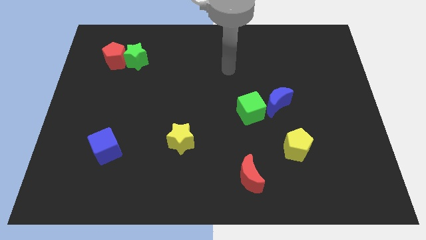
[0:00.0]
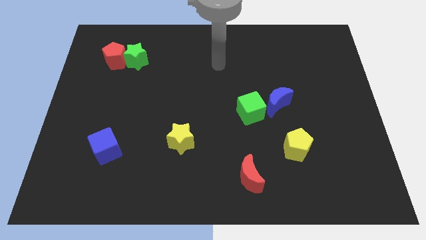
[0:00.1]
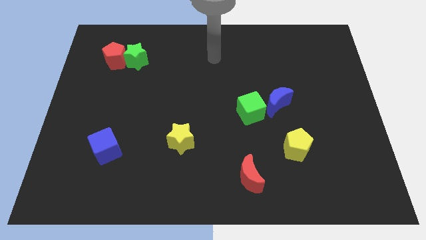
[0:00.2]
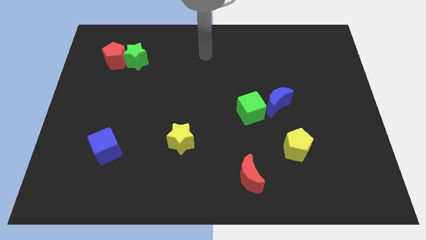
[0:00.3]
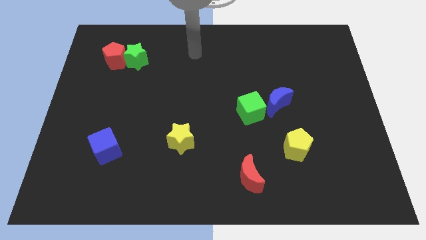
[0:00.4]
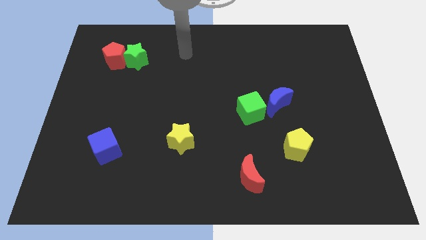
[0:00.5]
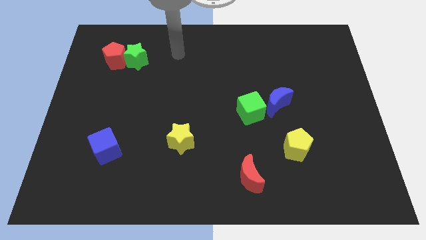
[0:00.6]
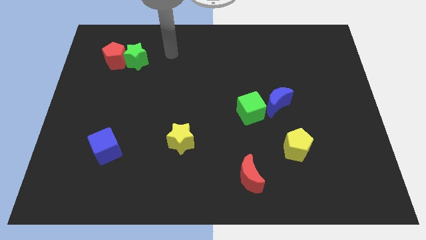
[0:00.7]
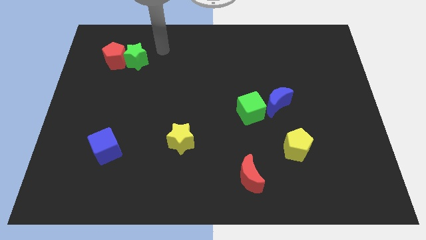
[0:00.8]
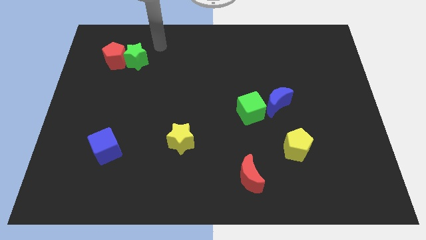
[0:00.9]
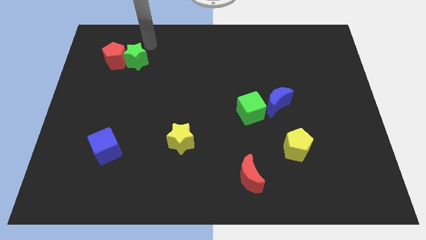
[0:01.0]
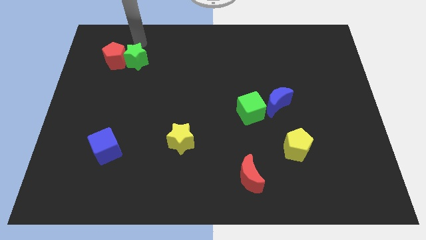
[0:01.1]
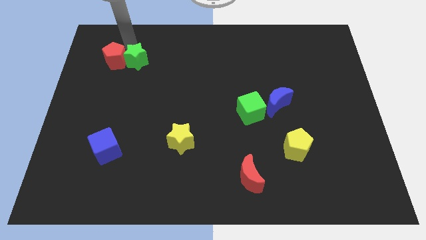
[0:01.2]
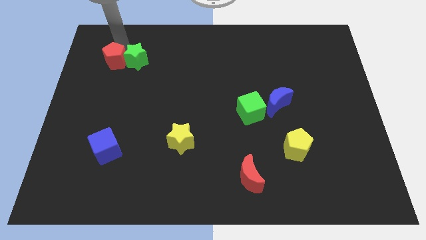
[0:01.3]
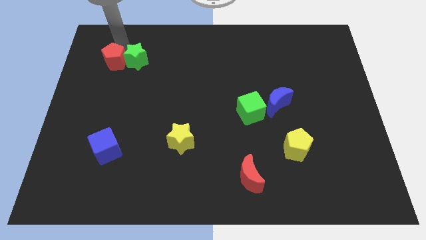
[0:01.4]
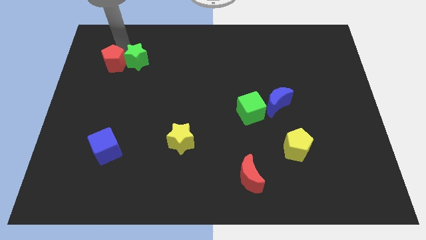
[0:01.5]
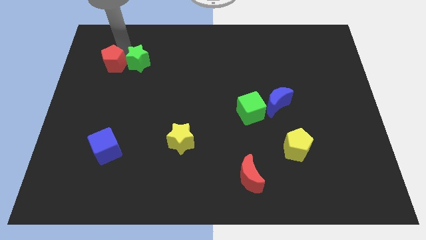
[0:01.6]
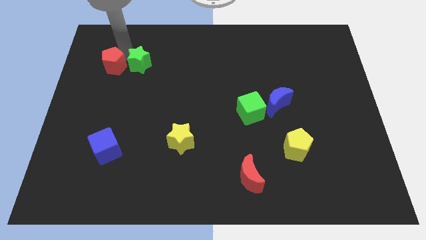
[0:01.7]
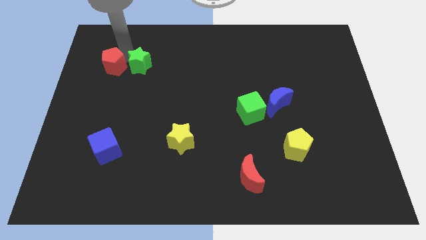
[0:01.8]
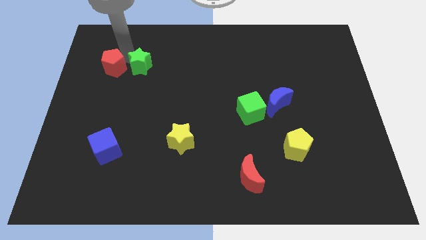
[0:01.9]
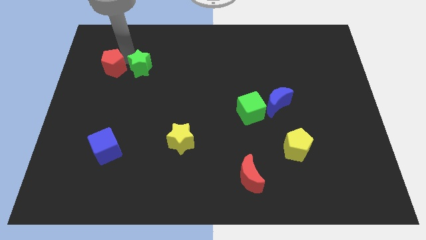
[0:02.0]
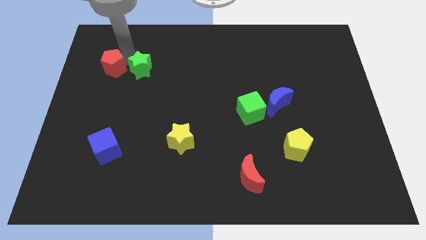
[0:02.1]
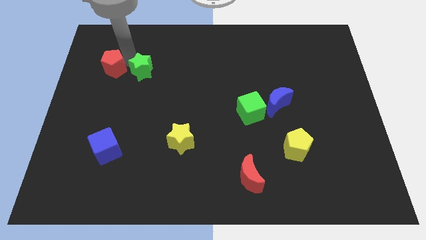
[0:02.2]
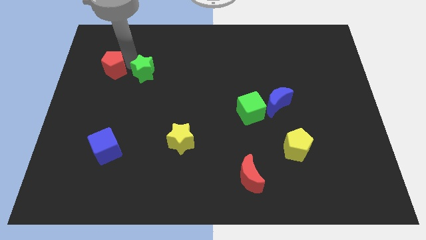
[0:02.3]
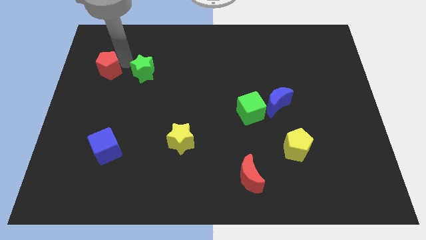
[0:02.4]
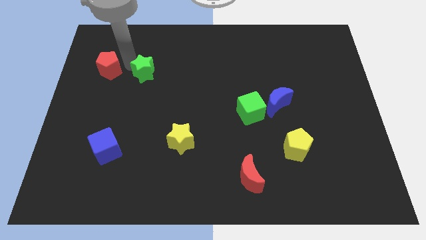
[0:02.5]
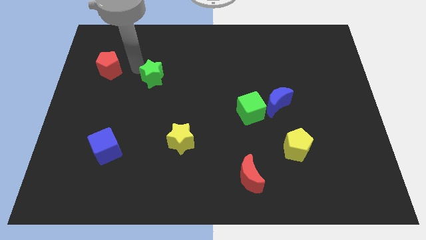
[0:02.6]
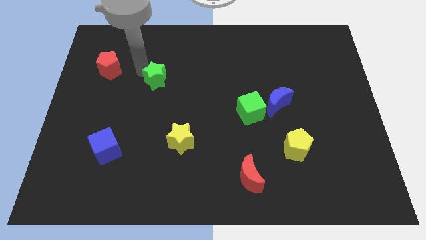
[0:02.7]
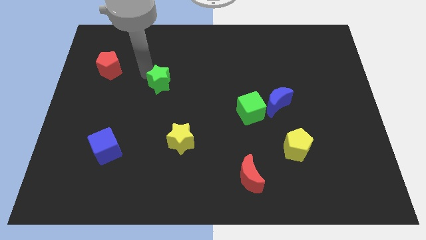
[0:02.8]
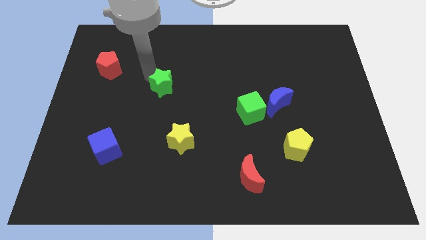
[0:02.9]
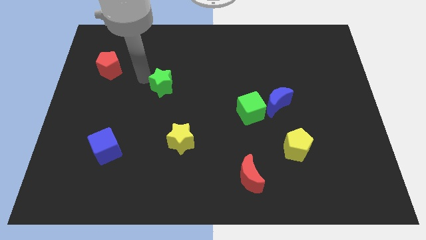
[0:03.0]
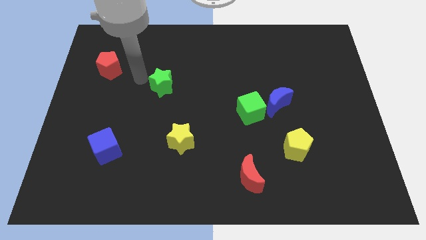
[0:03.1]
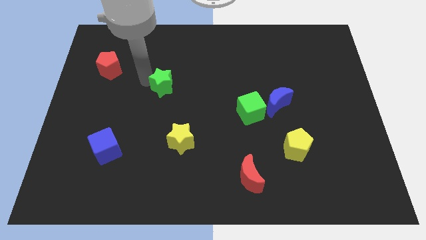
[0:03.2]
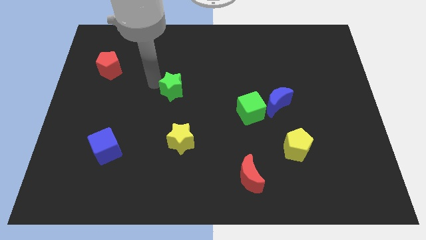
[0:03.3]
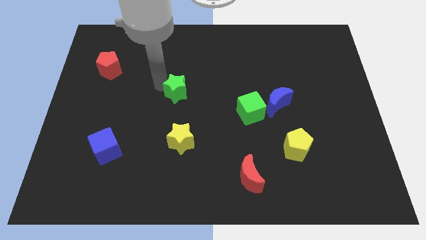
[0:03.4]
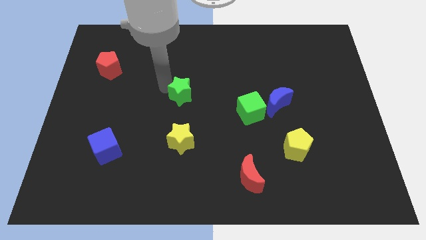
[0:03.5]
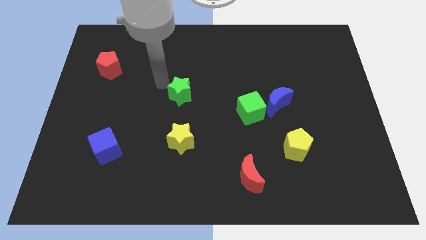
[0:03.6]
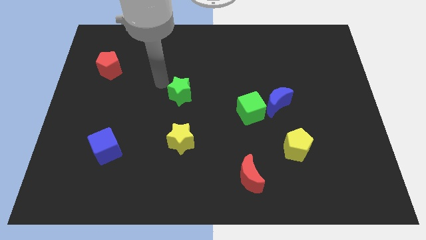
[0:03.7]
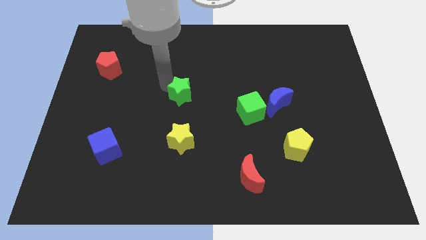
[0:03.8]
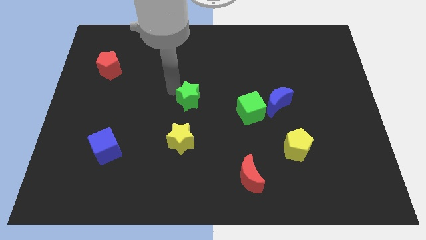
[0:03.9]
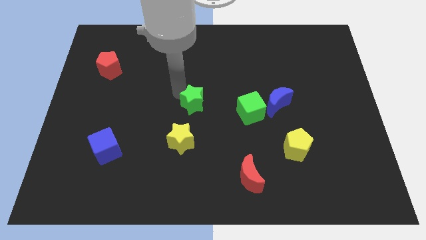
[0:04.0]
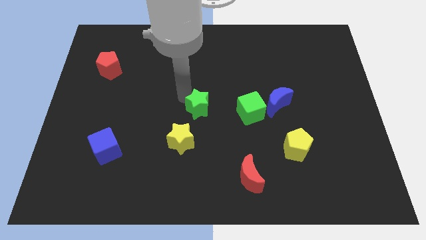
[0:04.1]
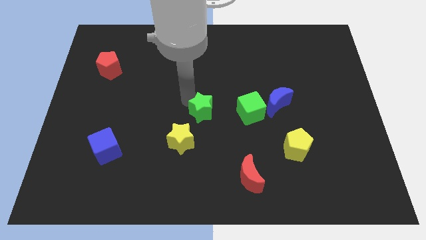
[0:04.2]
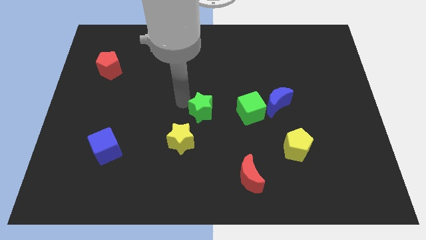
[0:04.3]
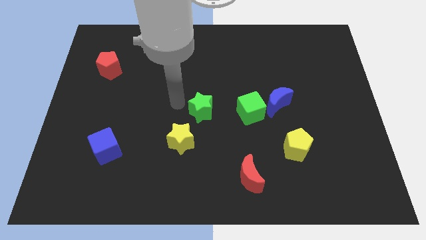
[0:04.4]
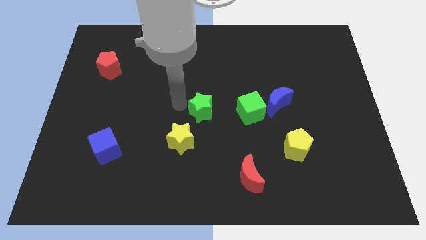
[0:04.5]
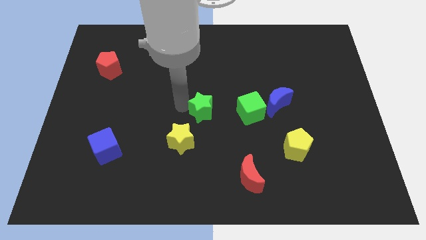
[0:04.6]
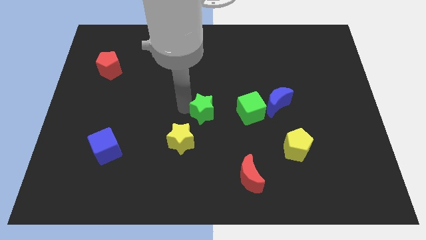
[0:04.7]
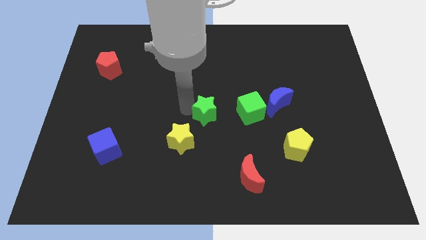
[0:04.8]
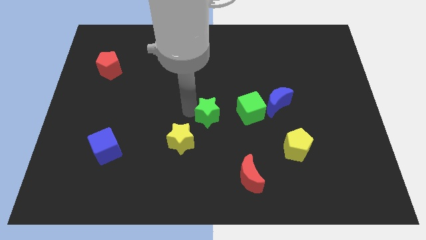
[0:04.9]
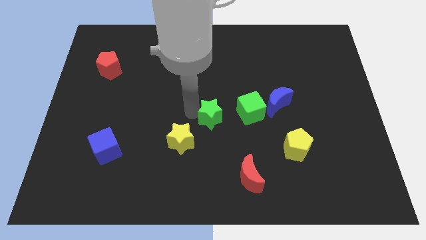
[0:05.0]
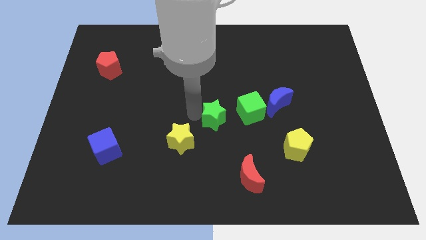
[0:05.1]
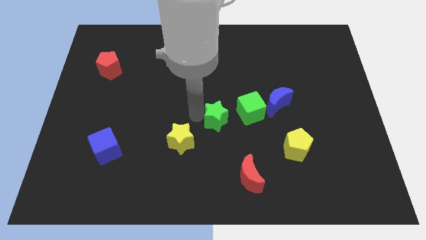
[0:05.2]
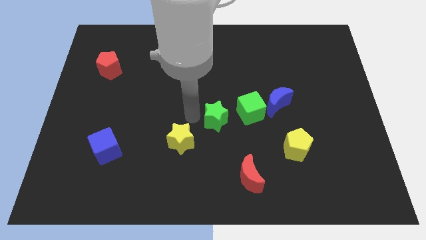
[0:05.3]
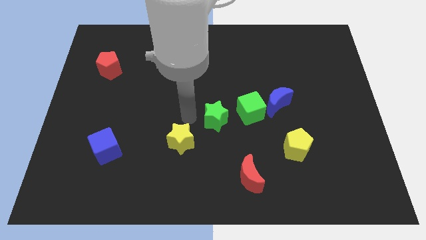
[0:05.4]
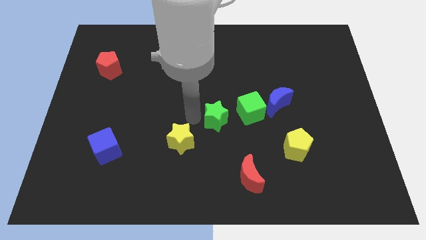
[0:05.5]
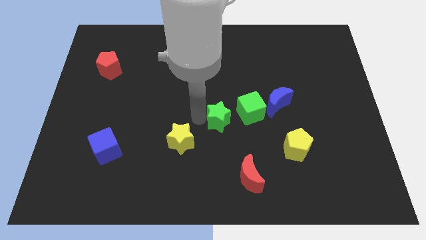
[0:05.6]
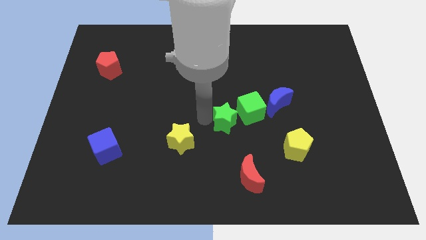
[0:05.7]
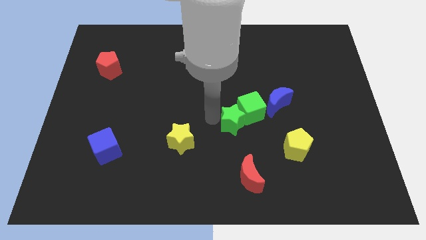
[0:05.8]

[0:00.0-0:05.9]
push the green star diagonally down and to the left of the blue moon

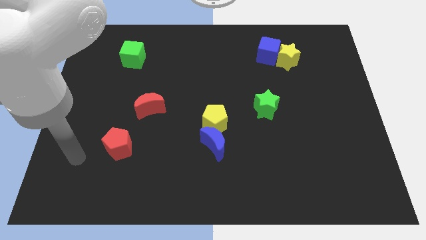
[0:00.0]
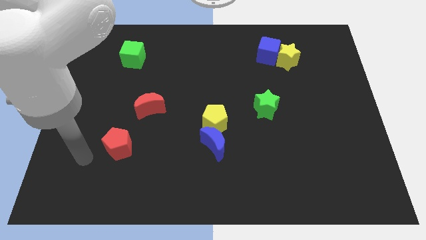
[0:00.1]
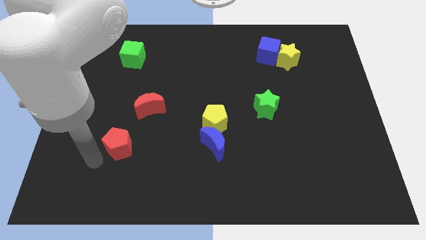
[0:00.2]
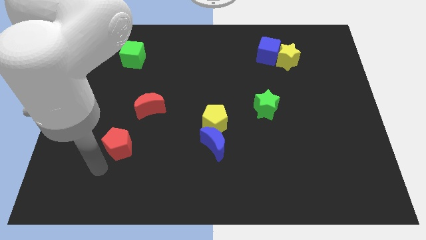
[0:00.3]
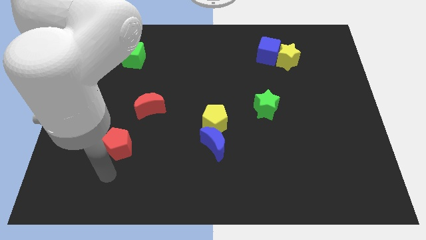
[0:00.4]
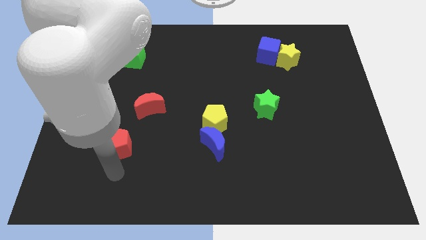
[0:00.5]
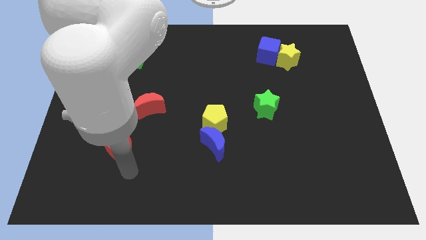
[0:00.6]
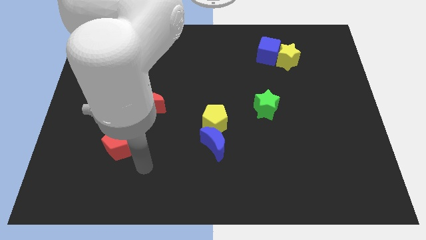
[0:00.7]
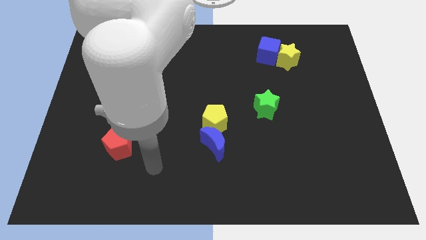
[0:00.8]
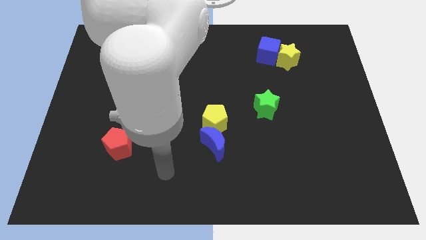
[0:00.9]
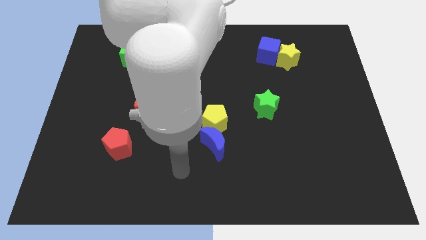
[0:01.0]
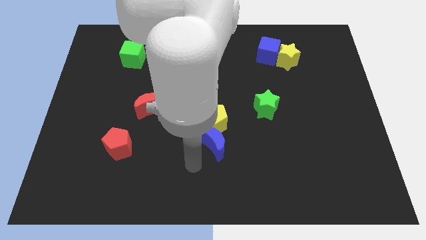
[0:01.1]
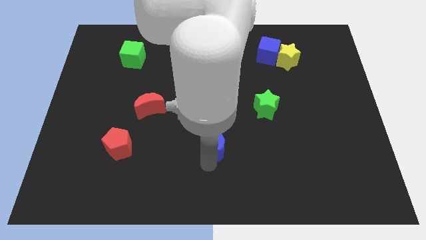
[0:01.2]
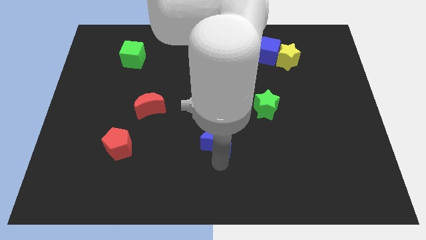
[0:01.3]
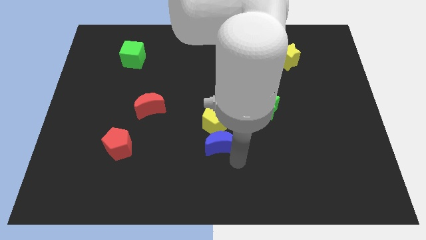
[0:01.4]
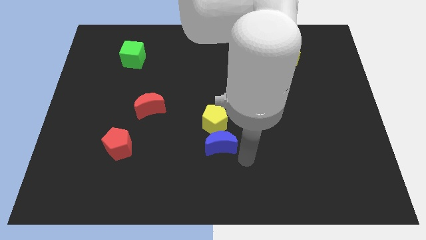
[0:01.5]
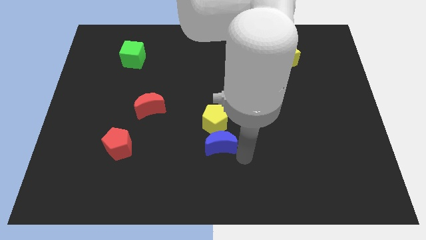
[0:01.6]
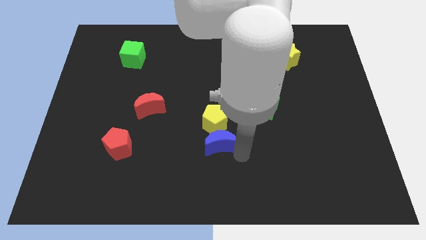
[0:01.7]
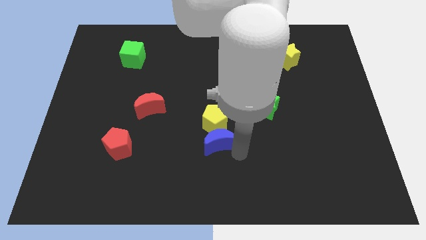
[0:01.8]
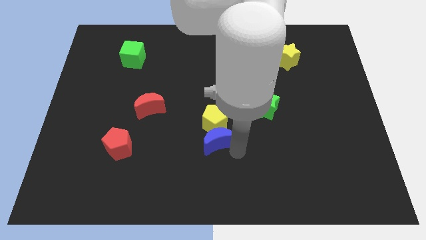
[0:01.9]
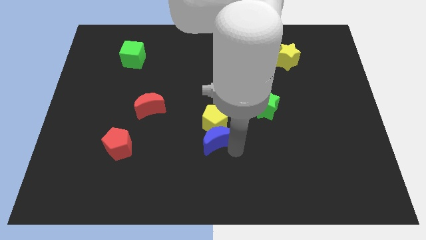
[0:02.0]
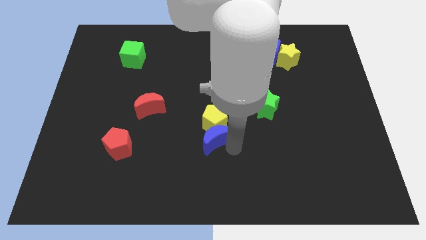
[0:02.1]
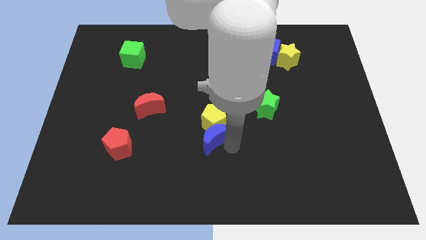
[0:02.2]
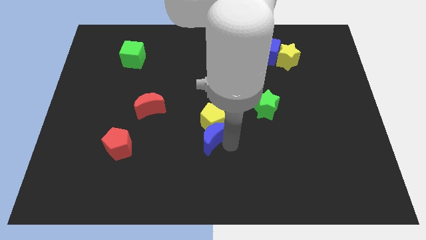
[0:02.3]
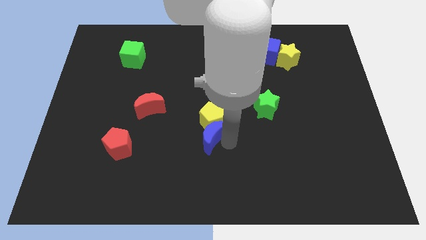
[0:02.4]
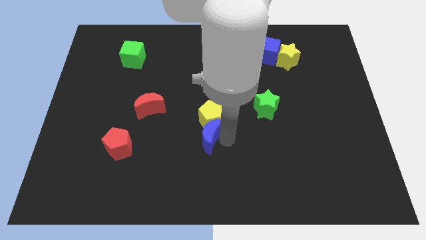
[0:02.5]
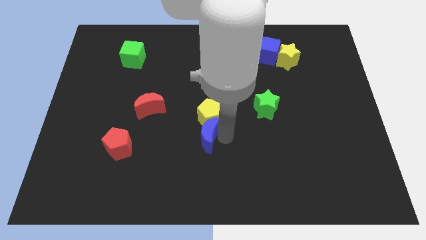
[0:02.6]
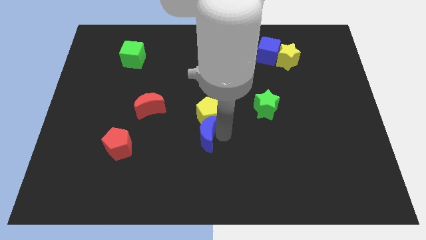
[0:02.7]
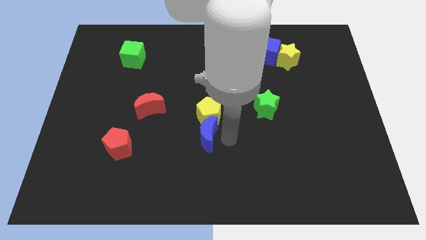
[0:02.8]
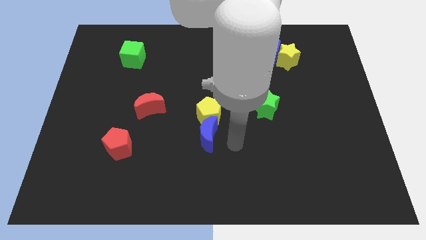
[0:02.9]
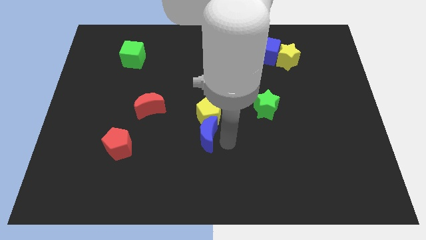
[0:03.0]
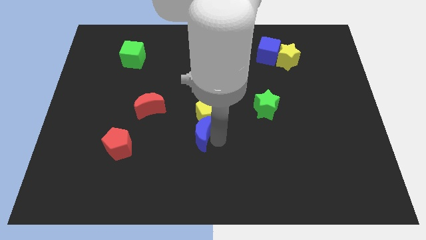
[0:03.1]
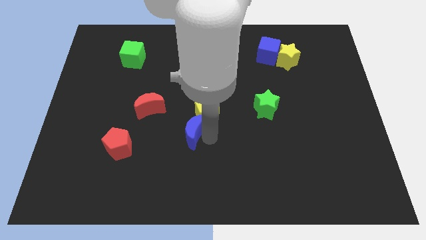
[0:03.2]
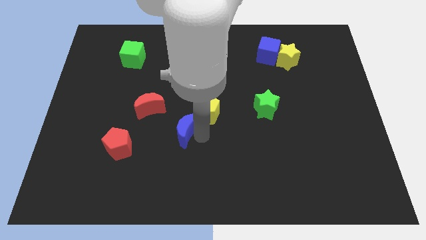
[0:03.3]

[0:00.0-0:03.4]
push the blue moon to the bottom right of the red moon
